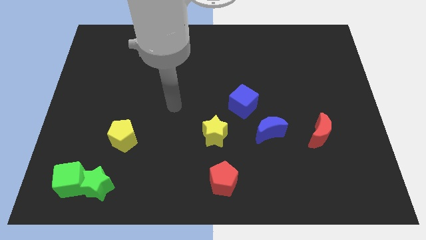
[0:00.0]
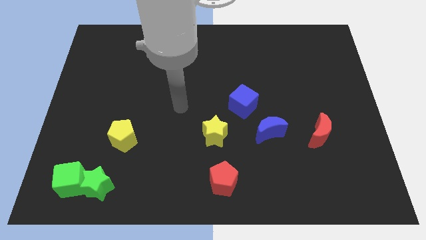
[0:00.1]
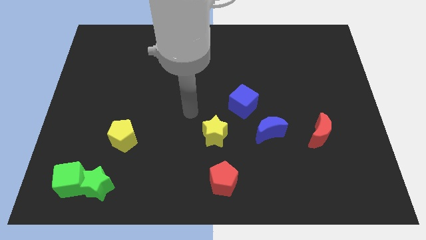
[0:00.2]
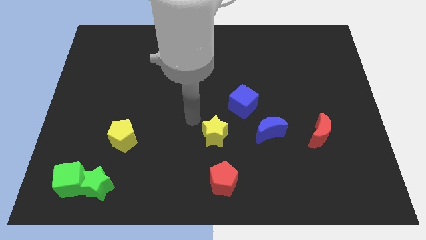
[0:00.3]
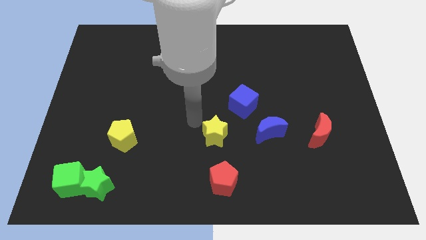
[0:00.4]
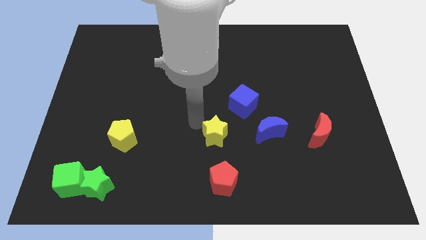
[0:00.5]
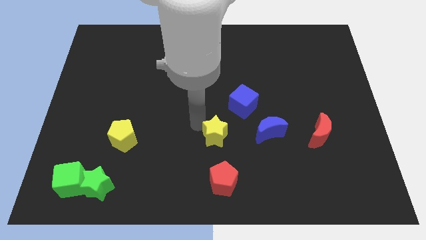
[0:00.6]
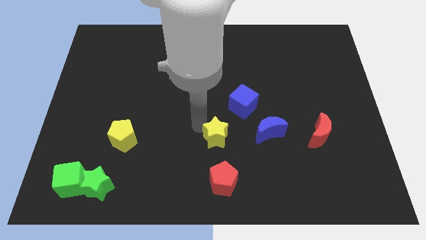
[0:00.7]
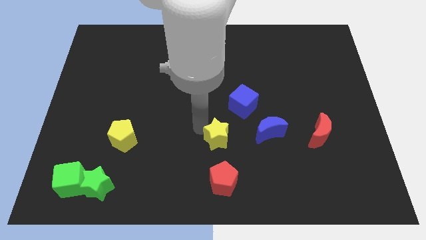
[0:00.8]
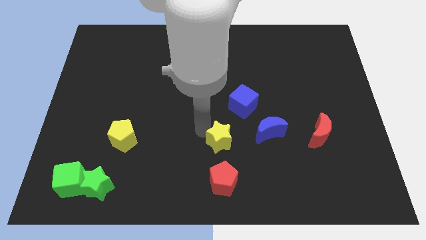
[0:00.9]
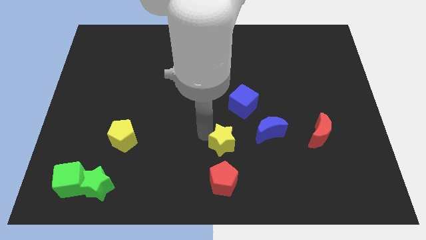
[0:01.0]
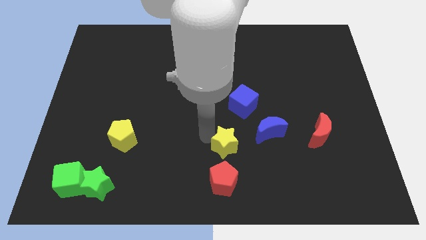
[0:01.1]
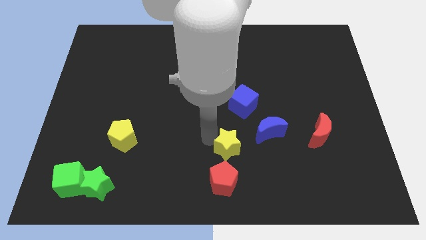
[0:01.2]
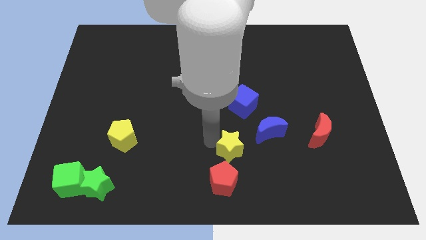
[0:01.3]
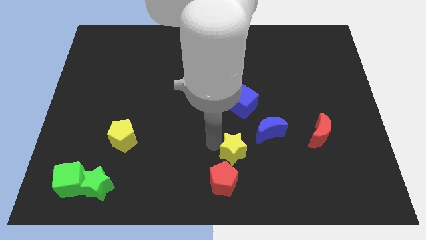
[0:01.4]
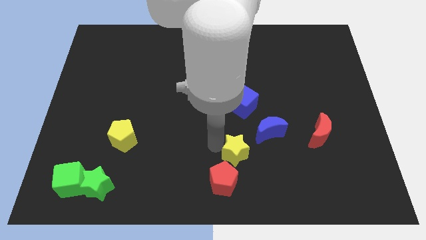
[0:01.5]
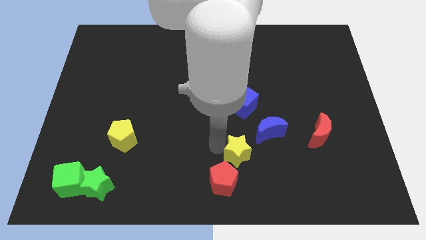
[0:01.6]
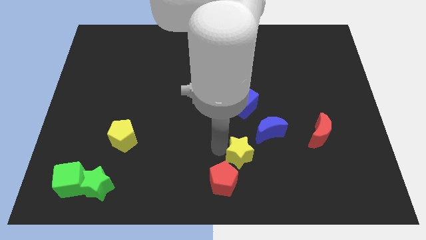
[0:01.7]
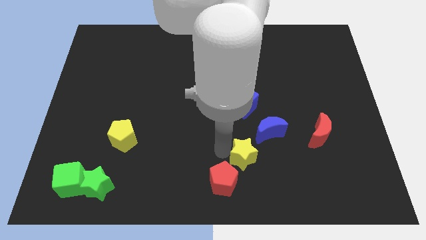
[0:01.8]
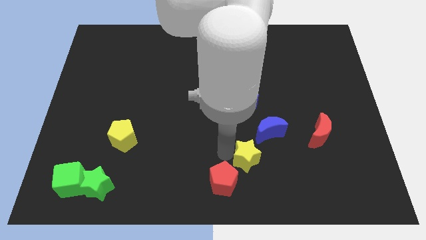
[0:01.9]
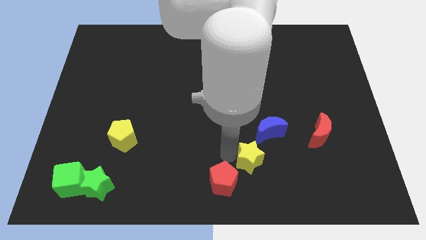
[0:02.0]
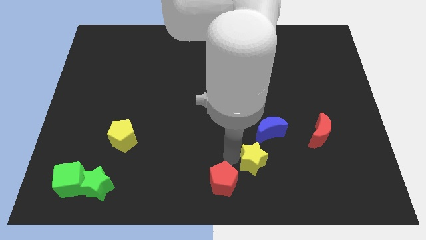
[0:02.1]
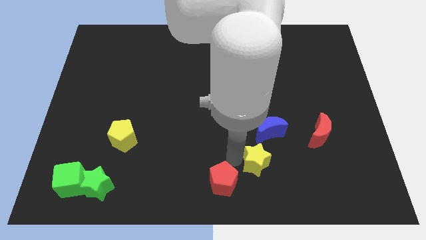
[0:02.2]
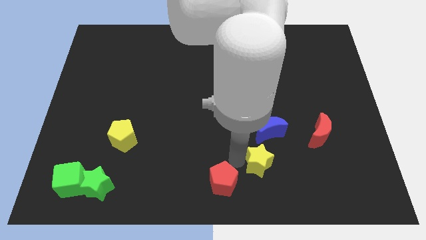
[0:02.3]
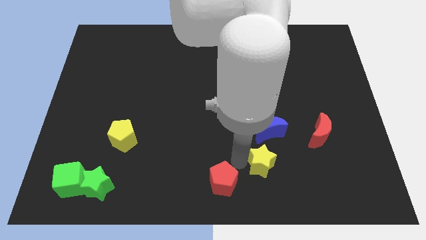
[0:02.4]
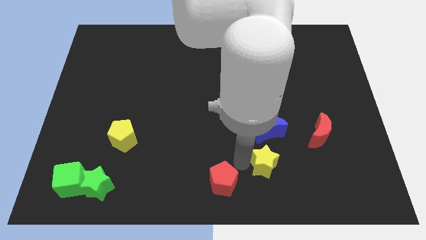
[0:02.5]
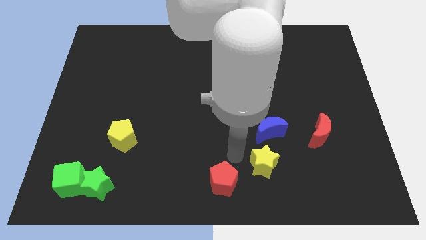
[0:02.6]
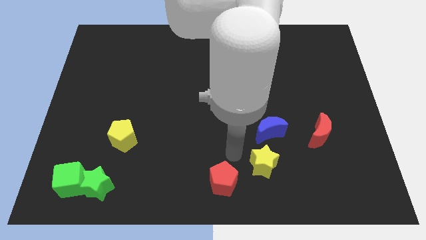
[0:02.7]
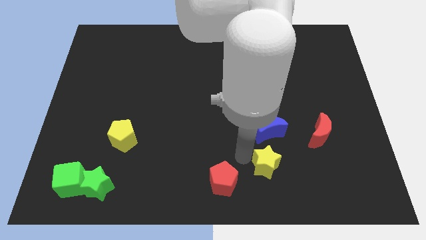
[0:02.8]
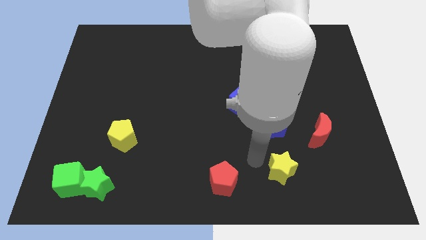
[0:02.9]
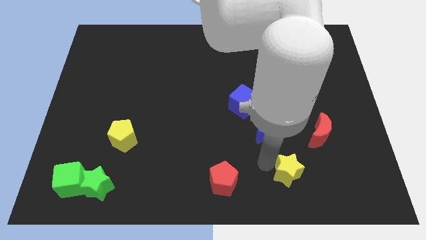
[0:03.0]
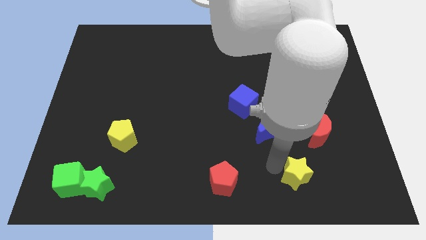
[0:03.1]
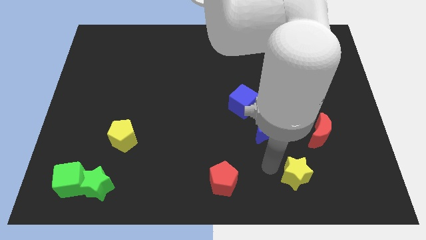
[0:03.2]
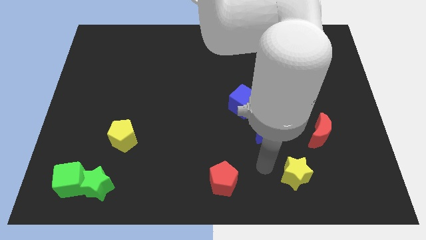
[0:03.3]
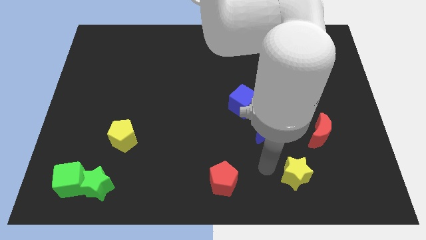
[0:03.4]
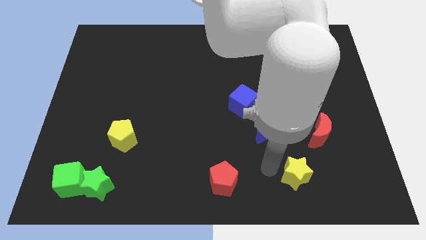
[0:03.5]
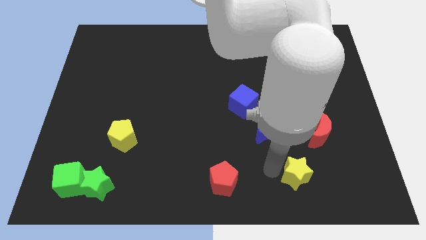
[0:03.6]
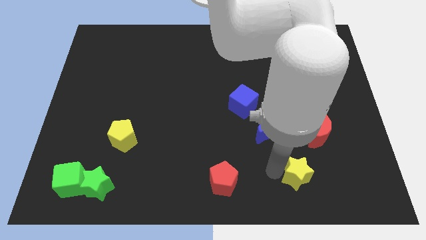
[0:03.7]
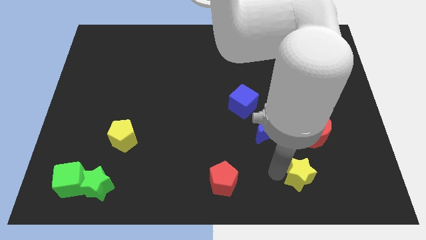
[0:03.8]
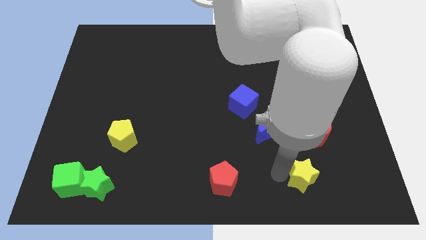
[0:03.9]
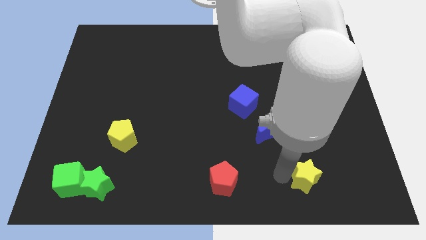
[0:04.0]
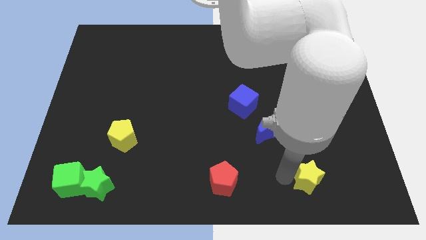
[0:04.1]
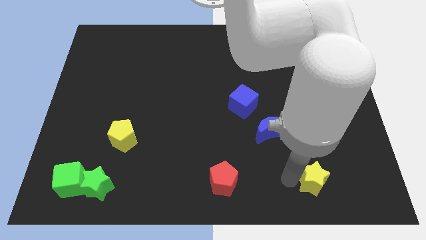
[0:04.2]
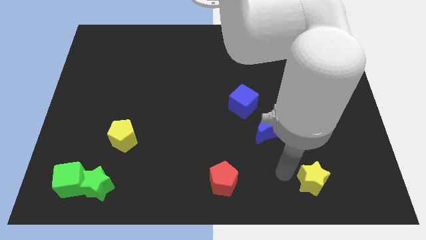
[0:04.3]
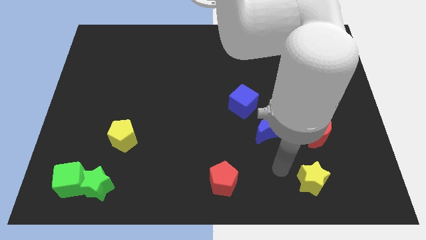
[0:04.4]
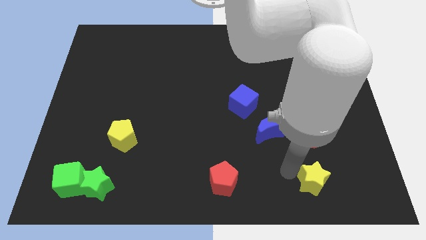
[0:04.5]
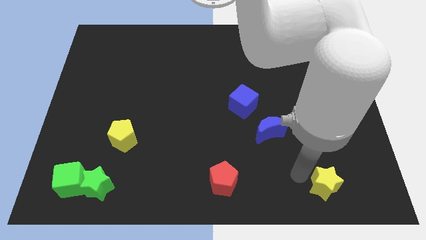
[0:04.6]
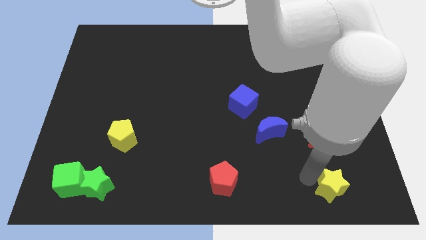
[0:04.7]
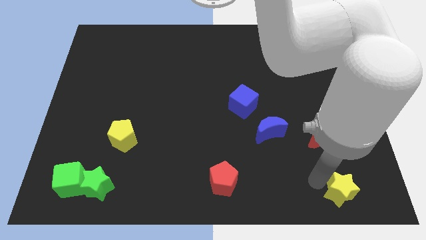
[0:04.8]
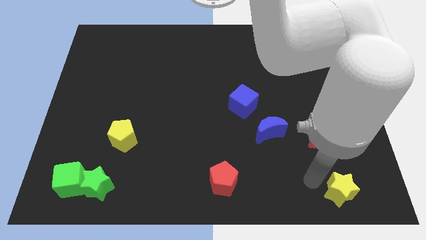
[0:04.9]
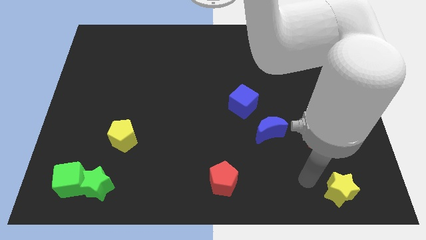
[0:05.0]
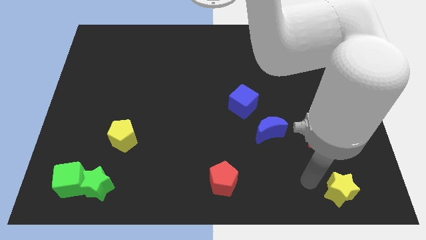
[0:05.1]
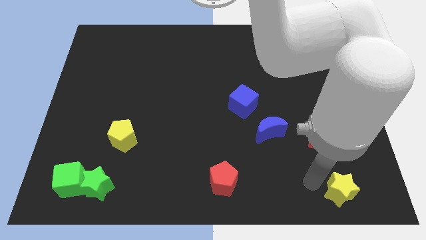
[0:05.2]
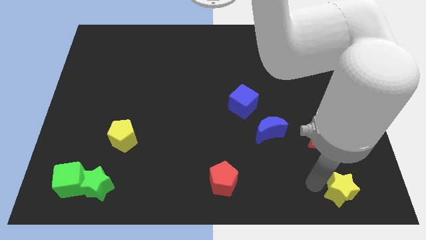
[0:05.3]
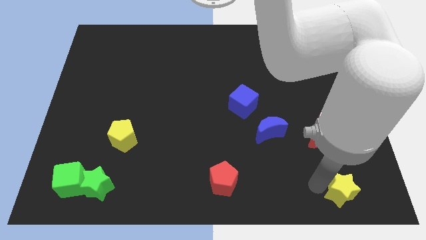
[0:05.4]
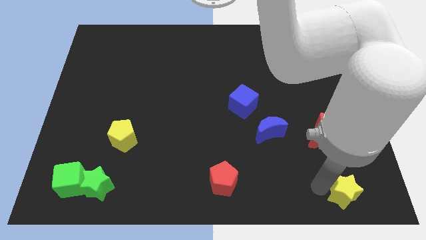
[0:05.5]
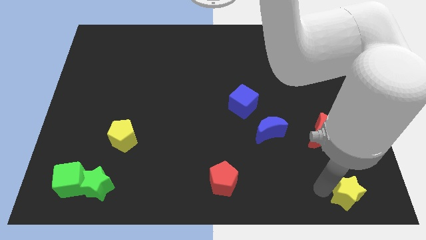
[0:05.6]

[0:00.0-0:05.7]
put the yellow star to the bottom right
